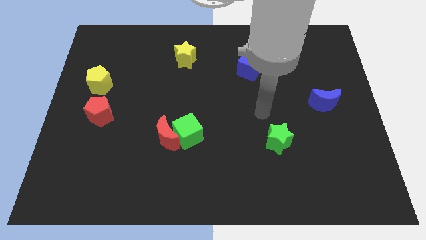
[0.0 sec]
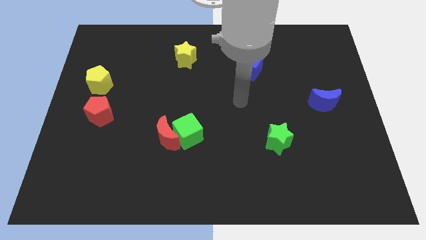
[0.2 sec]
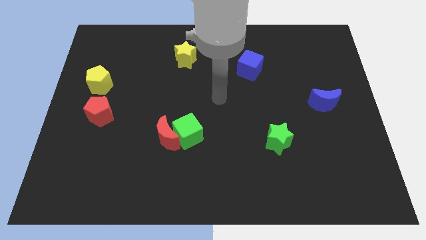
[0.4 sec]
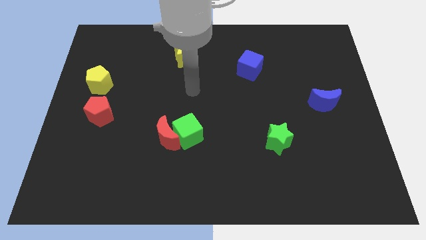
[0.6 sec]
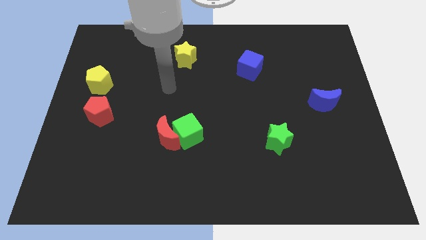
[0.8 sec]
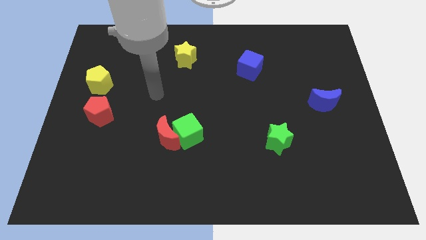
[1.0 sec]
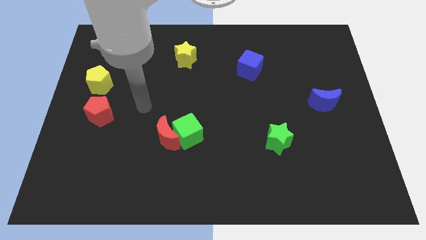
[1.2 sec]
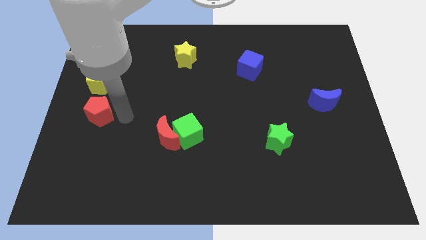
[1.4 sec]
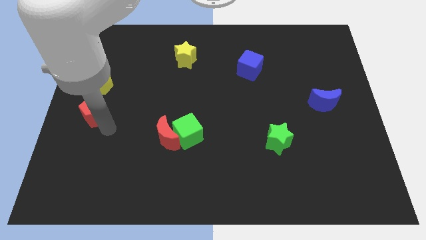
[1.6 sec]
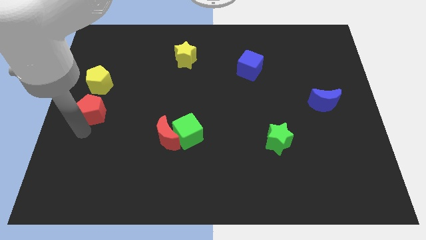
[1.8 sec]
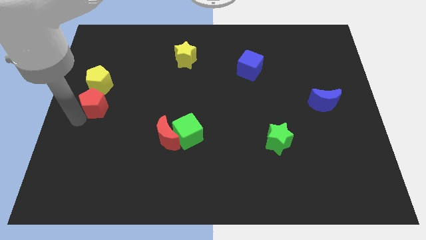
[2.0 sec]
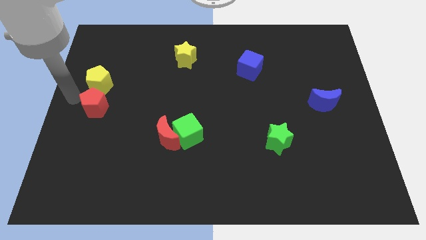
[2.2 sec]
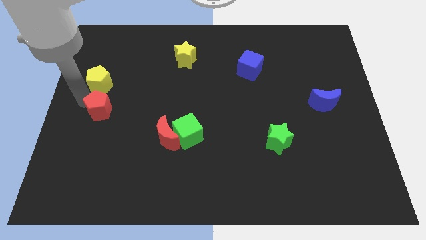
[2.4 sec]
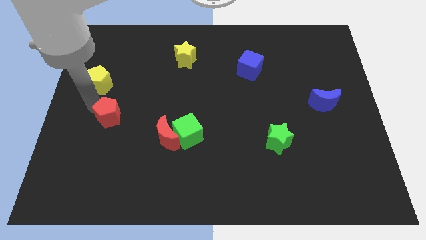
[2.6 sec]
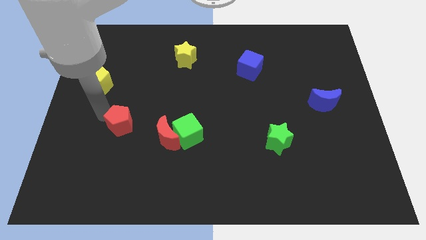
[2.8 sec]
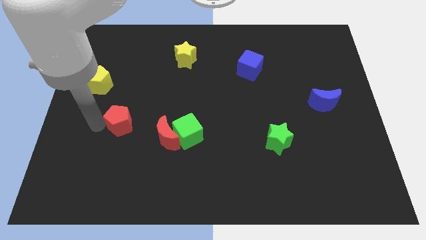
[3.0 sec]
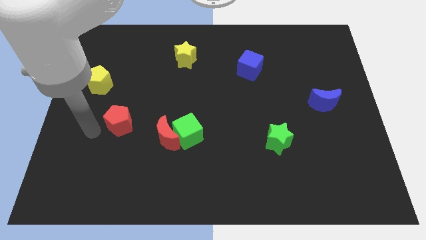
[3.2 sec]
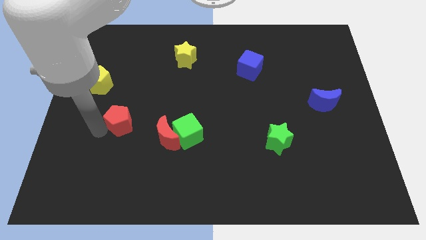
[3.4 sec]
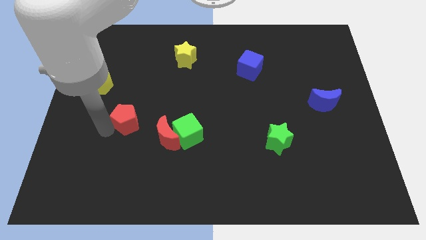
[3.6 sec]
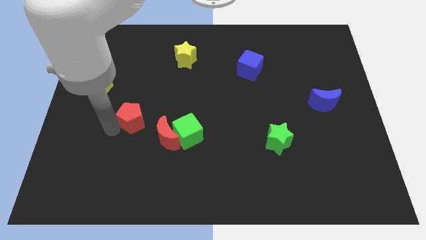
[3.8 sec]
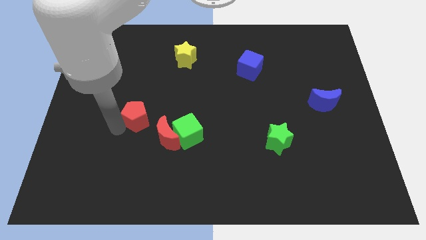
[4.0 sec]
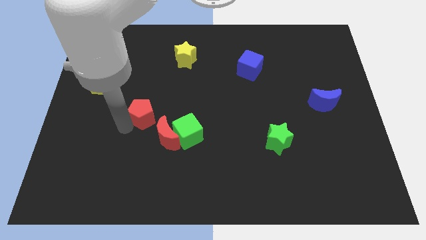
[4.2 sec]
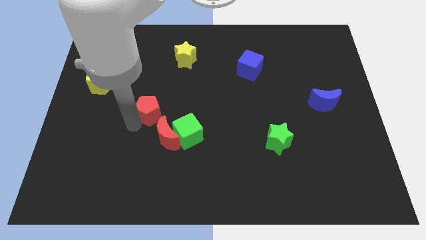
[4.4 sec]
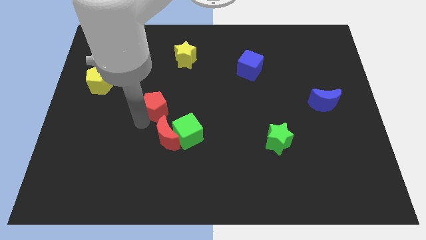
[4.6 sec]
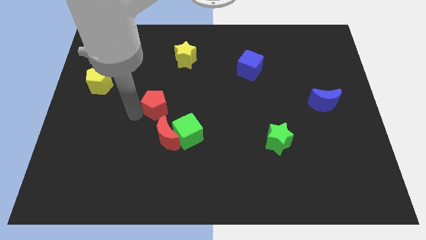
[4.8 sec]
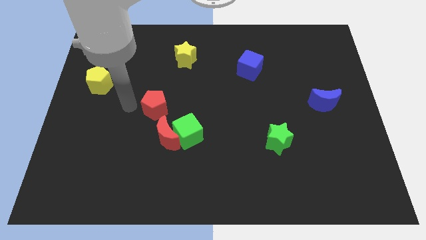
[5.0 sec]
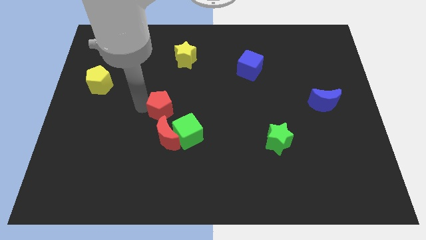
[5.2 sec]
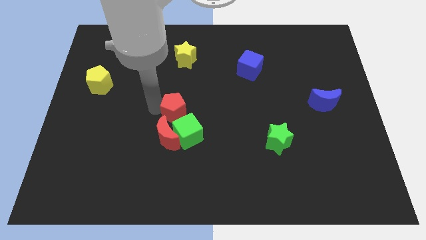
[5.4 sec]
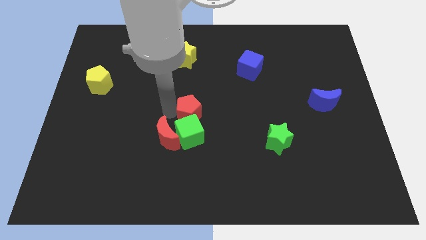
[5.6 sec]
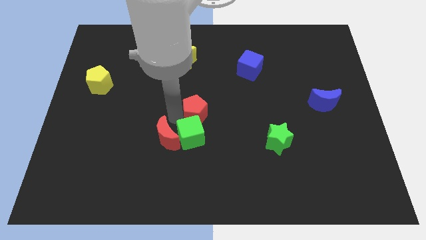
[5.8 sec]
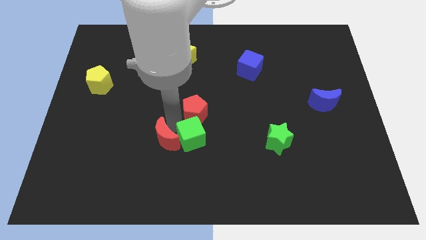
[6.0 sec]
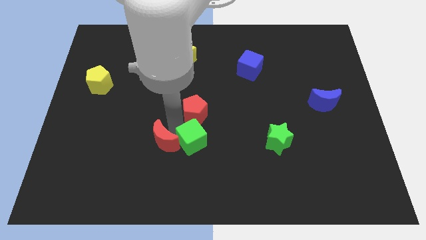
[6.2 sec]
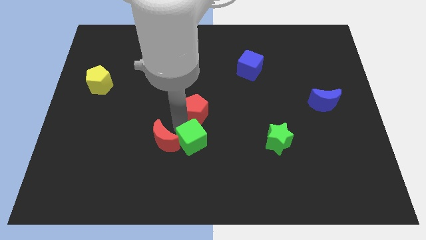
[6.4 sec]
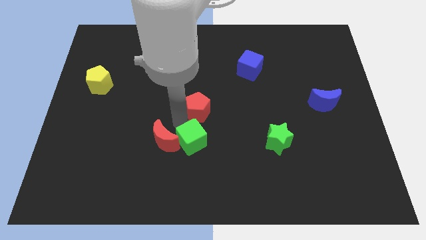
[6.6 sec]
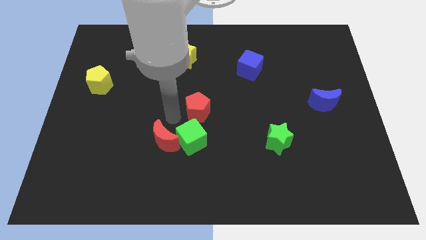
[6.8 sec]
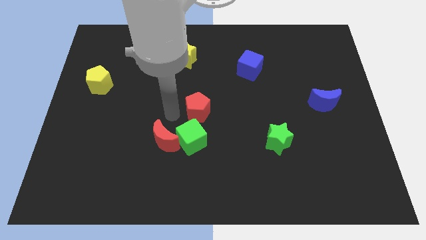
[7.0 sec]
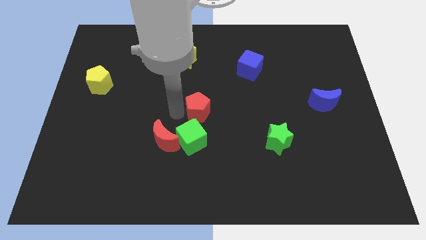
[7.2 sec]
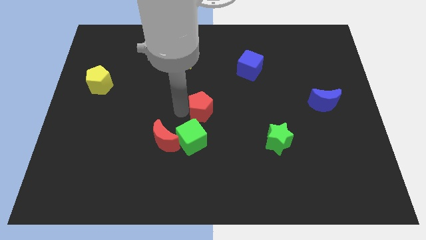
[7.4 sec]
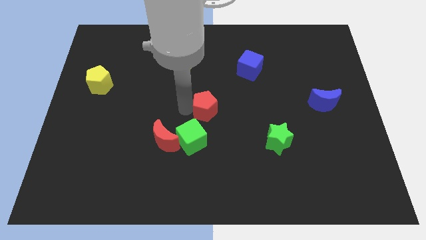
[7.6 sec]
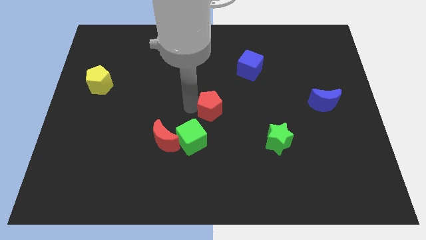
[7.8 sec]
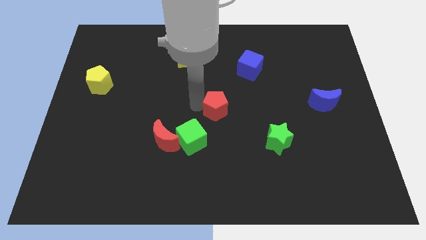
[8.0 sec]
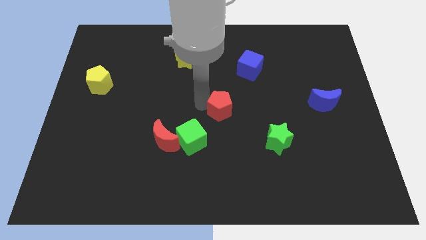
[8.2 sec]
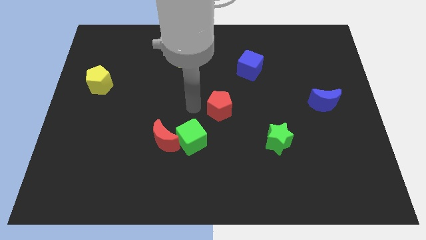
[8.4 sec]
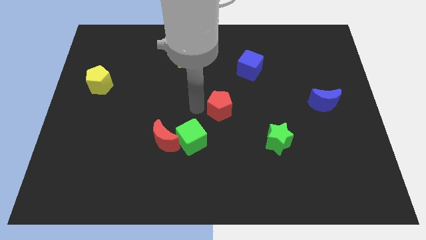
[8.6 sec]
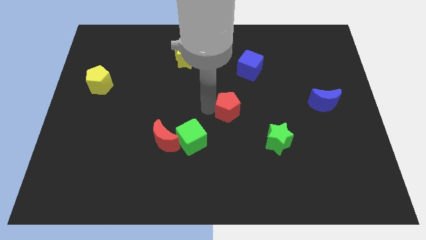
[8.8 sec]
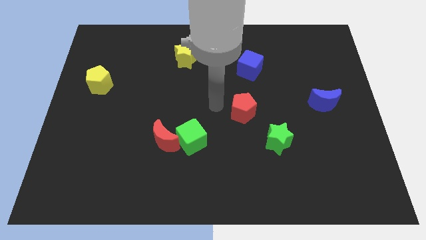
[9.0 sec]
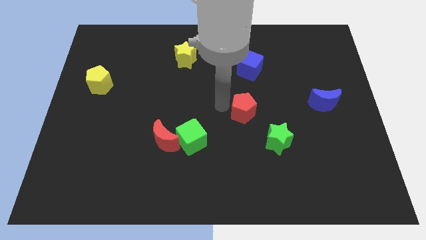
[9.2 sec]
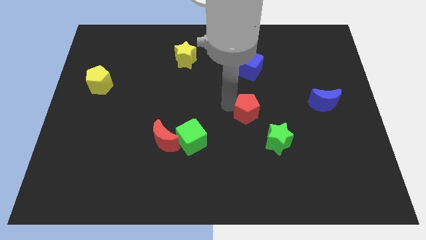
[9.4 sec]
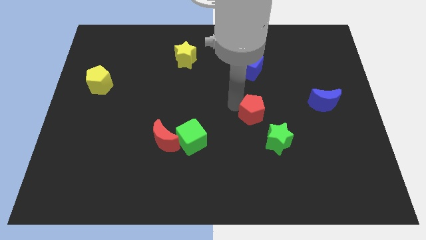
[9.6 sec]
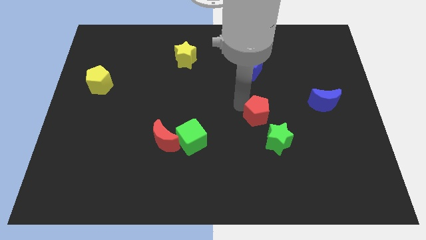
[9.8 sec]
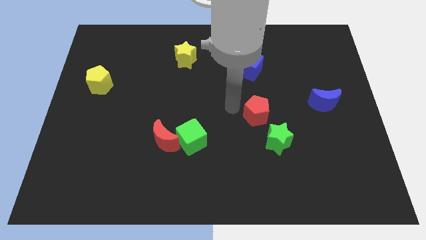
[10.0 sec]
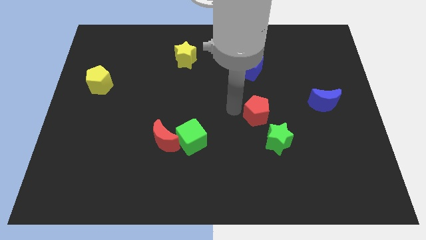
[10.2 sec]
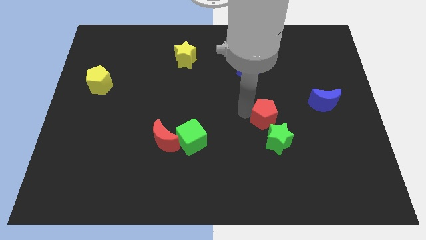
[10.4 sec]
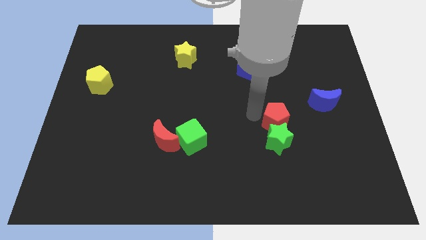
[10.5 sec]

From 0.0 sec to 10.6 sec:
put the red pentagon to the top right side of the green star

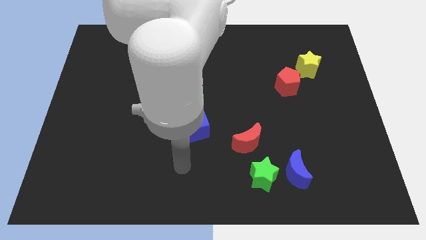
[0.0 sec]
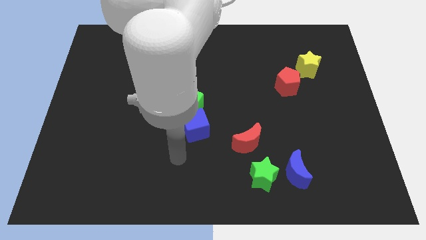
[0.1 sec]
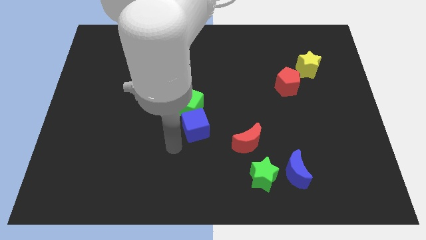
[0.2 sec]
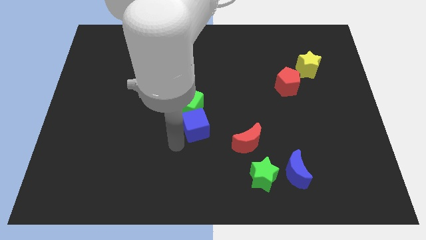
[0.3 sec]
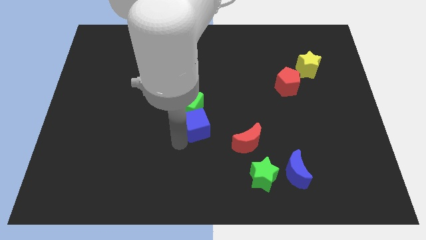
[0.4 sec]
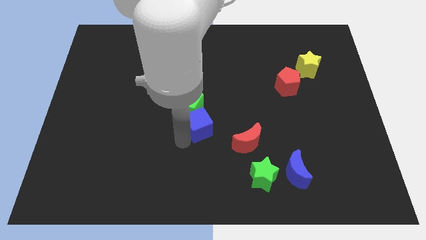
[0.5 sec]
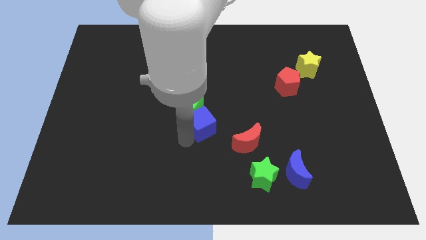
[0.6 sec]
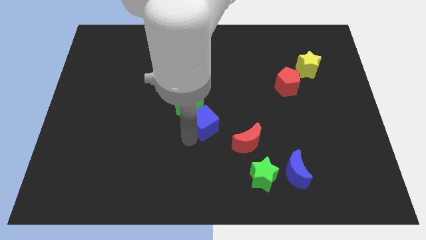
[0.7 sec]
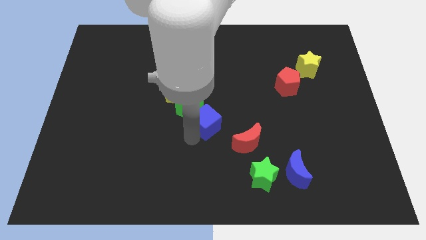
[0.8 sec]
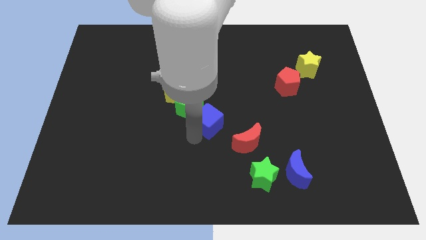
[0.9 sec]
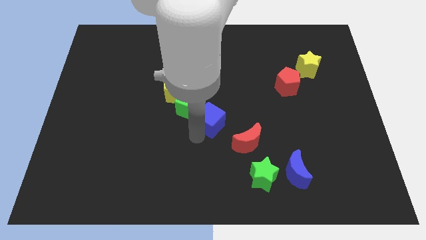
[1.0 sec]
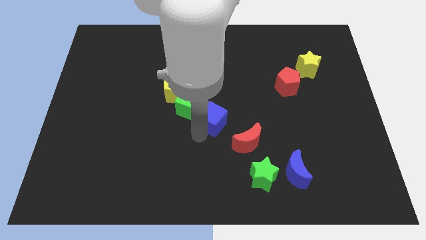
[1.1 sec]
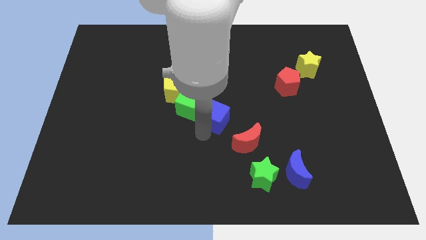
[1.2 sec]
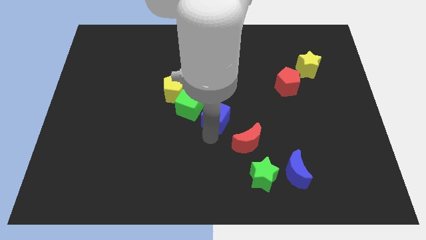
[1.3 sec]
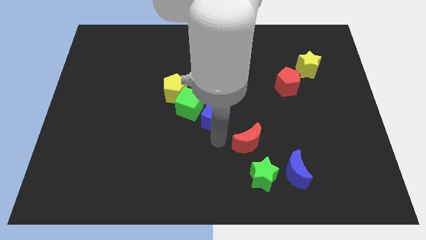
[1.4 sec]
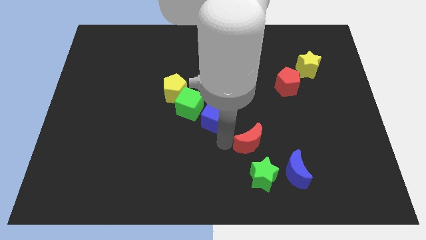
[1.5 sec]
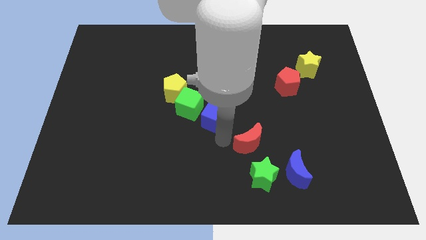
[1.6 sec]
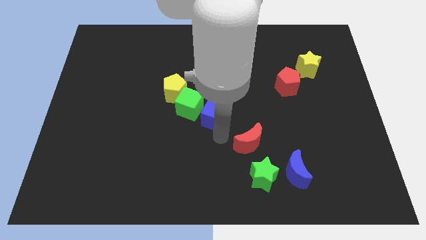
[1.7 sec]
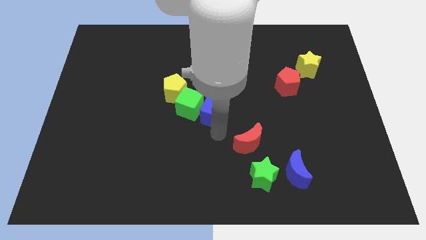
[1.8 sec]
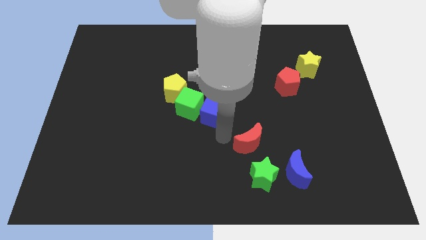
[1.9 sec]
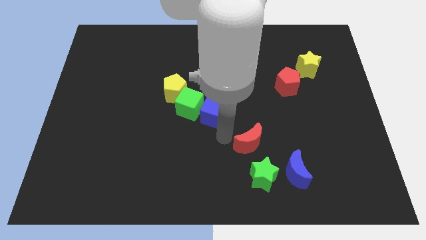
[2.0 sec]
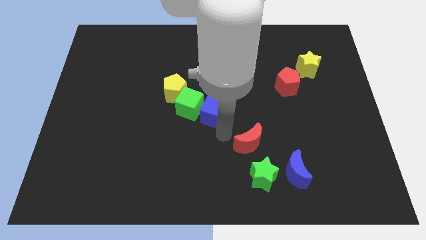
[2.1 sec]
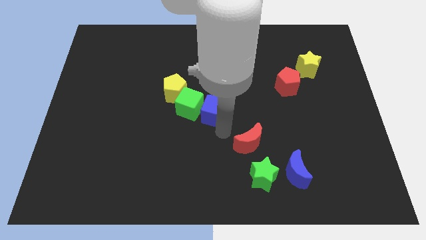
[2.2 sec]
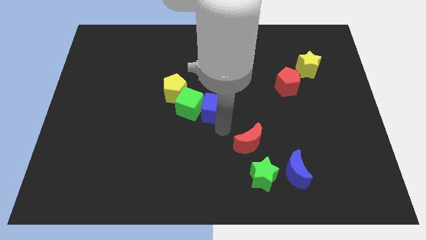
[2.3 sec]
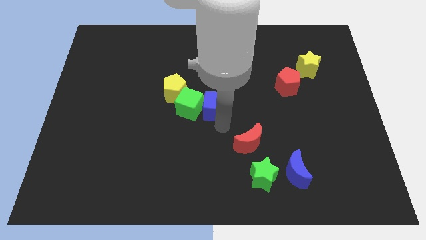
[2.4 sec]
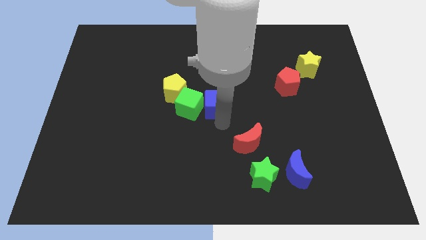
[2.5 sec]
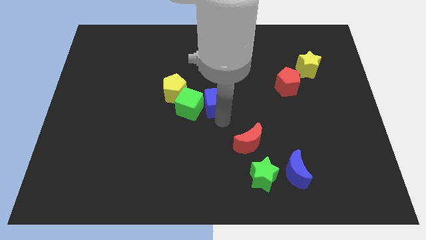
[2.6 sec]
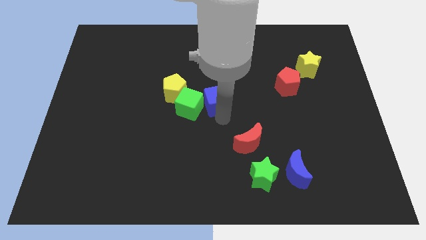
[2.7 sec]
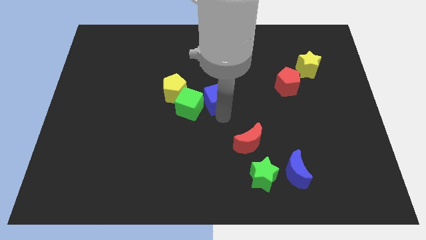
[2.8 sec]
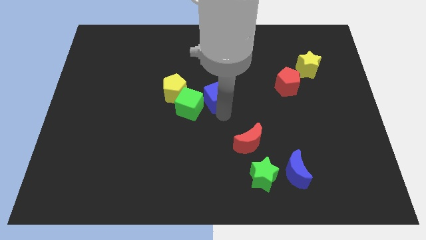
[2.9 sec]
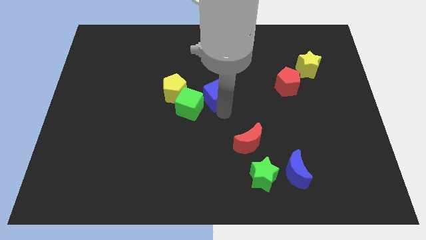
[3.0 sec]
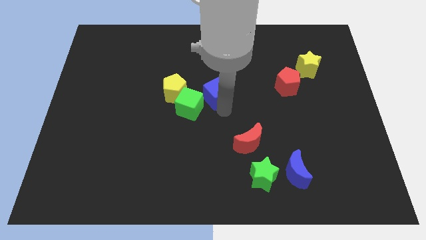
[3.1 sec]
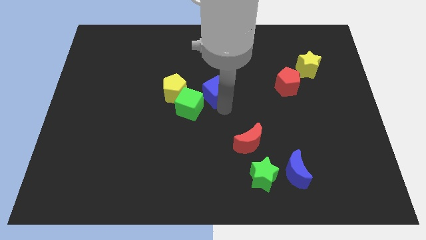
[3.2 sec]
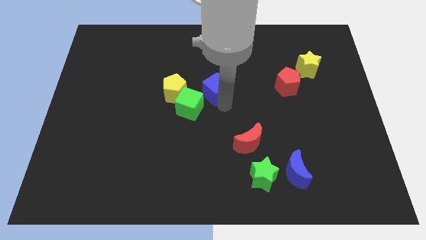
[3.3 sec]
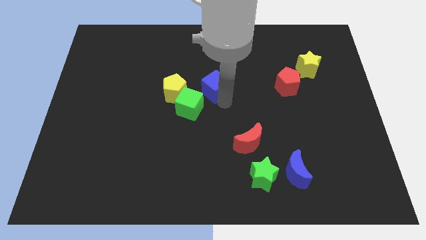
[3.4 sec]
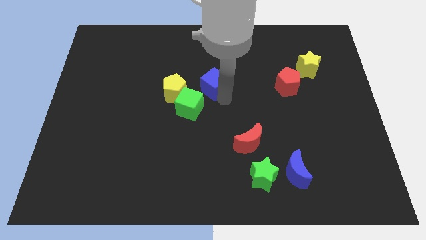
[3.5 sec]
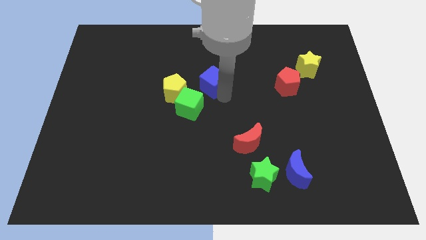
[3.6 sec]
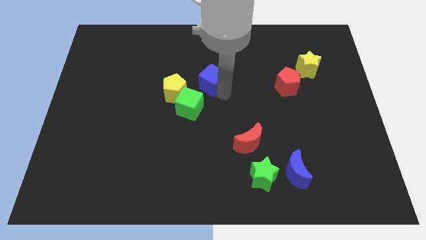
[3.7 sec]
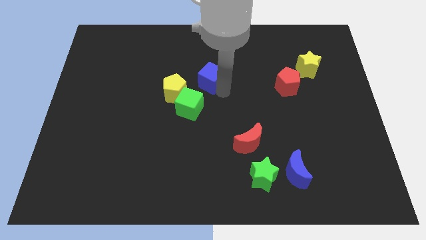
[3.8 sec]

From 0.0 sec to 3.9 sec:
put the blue cube to the top of the green cube
